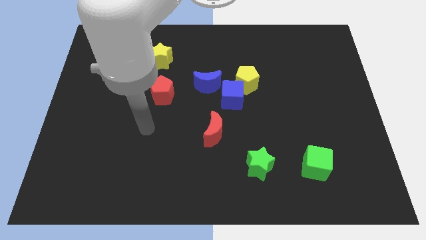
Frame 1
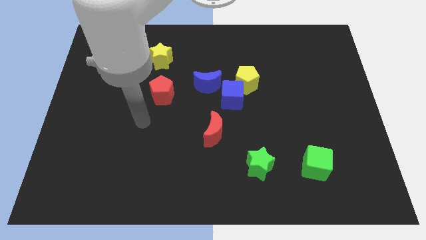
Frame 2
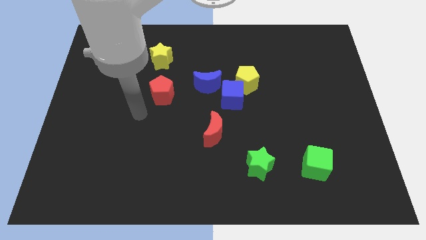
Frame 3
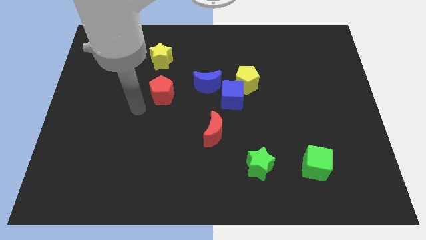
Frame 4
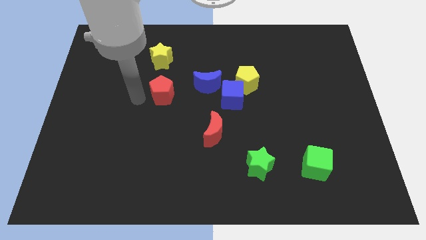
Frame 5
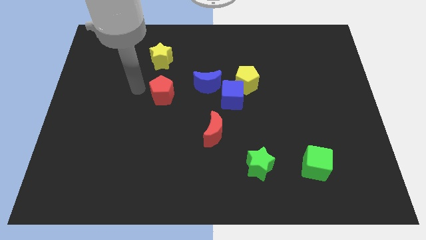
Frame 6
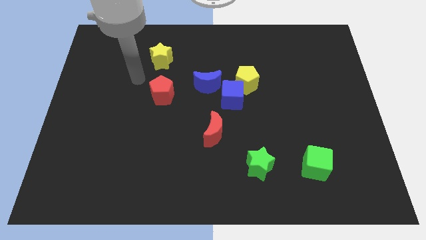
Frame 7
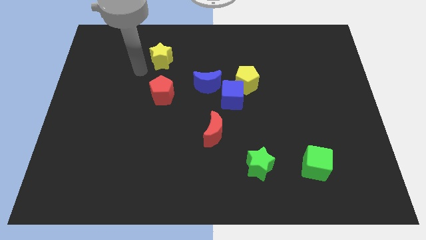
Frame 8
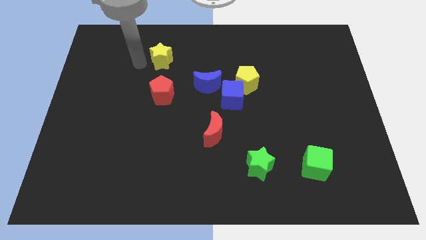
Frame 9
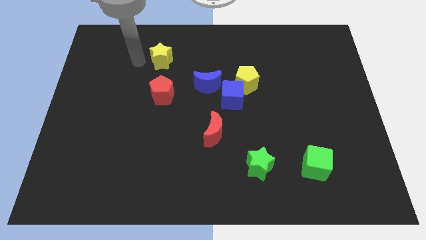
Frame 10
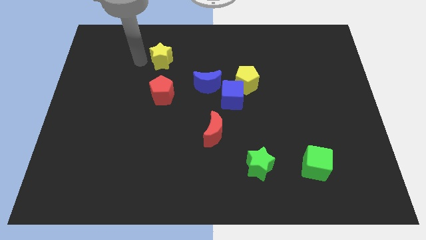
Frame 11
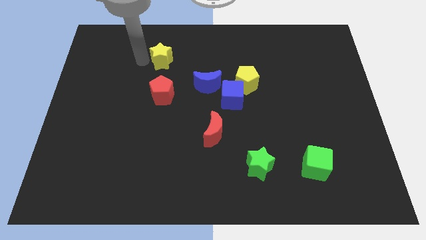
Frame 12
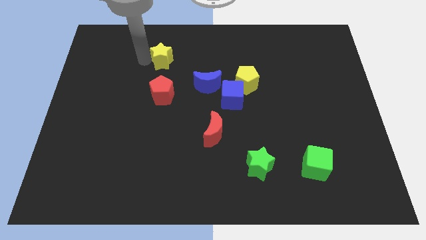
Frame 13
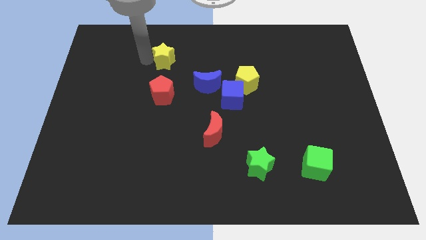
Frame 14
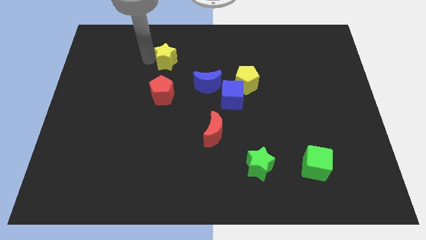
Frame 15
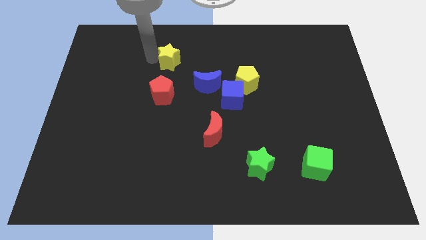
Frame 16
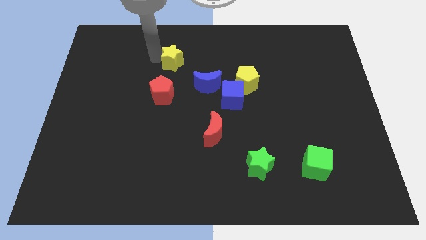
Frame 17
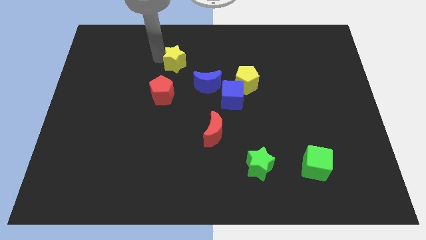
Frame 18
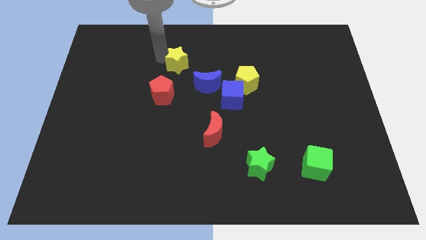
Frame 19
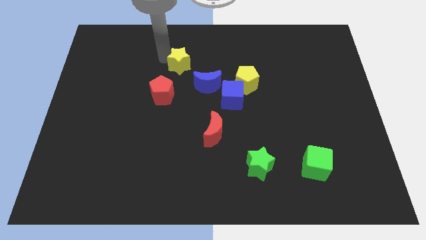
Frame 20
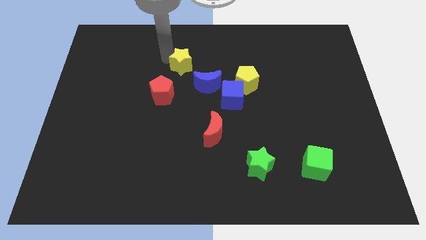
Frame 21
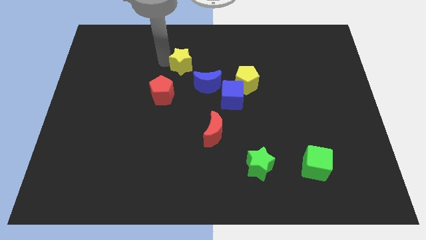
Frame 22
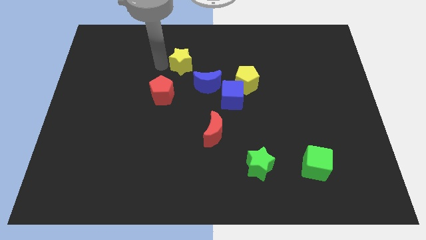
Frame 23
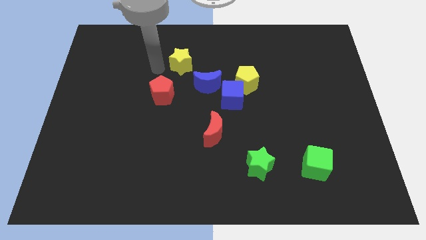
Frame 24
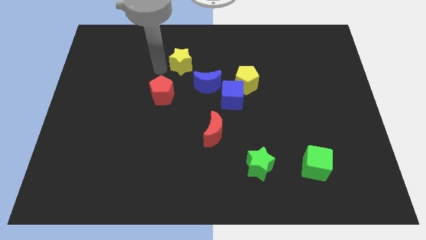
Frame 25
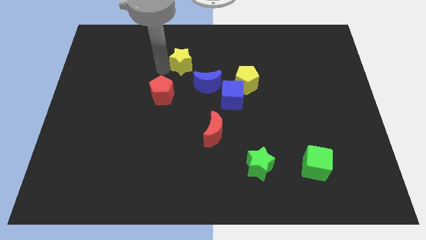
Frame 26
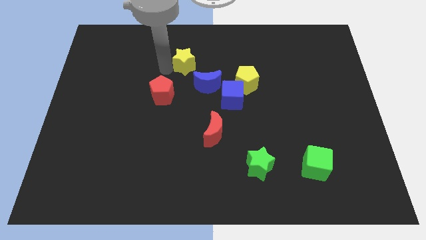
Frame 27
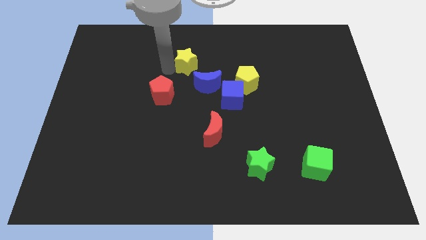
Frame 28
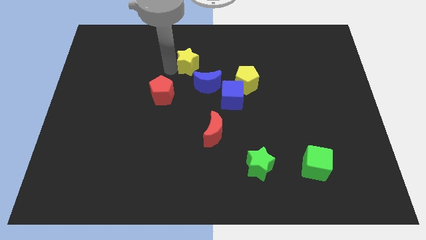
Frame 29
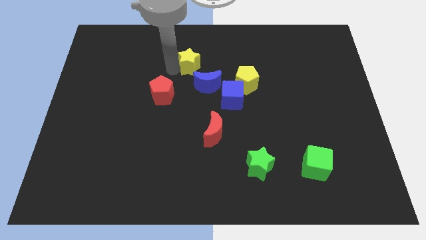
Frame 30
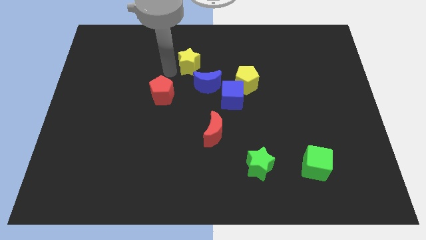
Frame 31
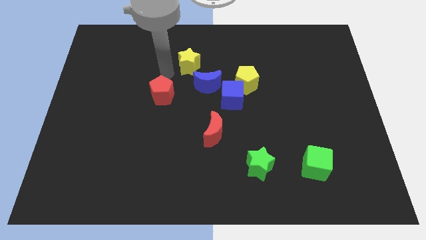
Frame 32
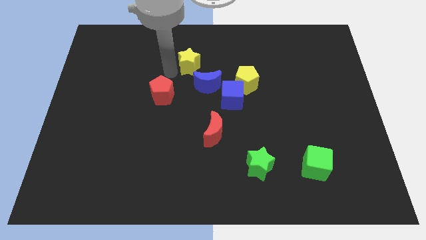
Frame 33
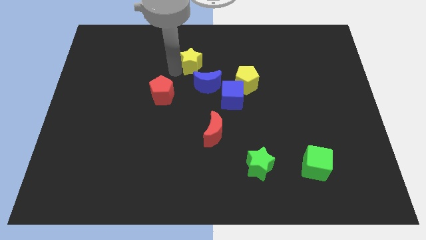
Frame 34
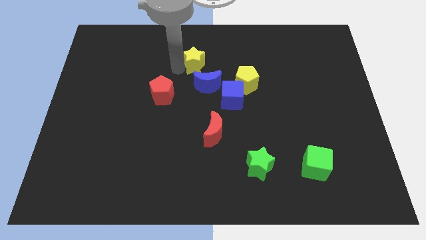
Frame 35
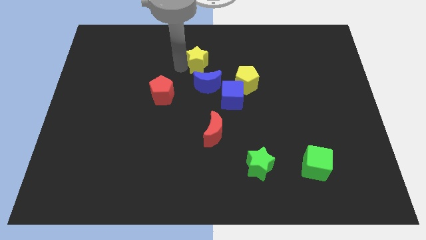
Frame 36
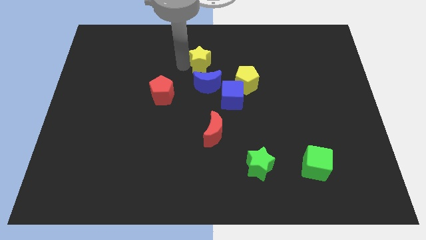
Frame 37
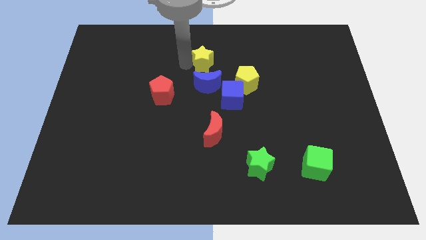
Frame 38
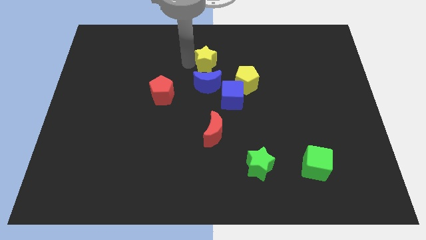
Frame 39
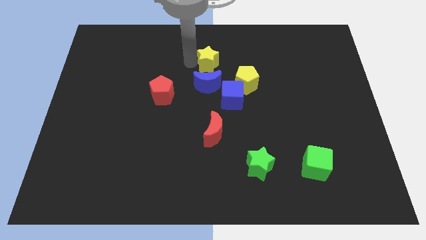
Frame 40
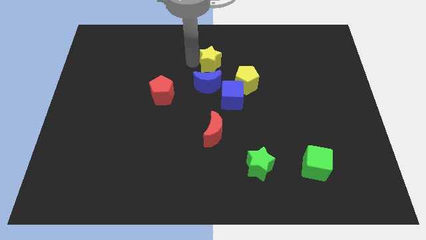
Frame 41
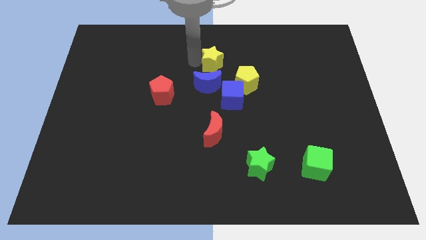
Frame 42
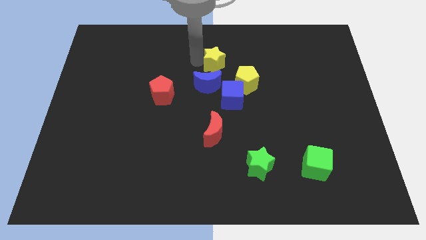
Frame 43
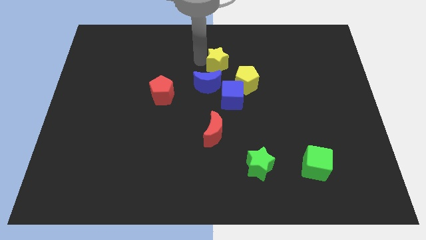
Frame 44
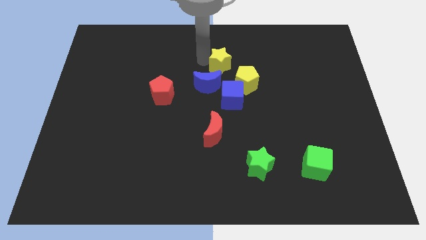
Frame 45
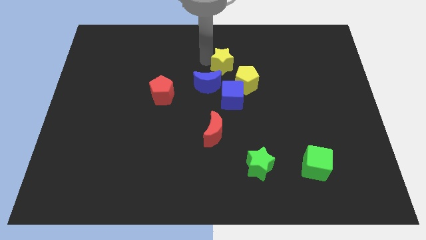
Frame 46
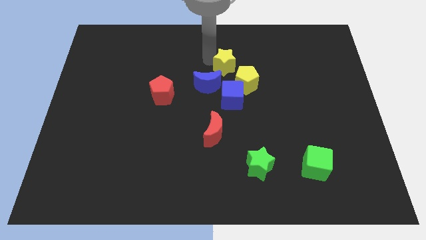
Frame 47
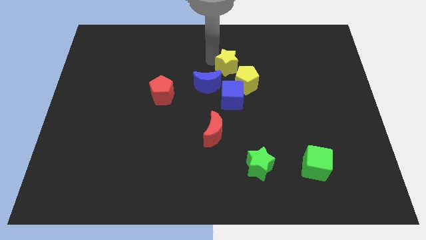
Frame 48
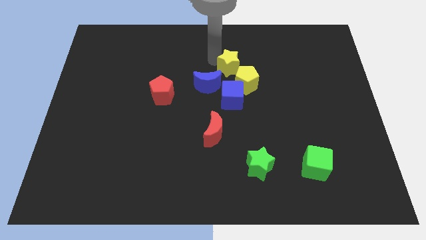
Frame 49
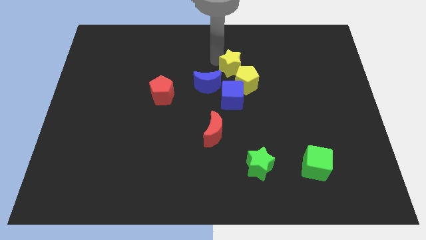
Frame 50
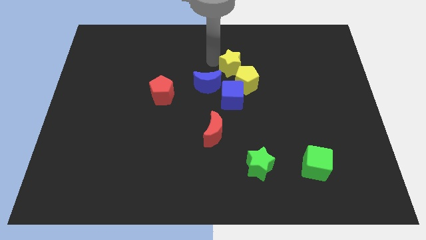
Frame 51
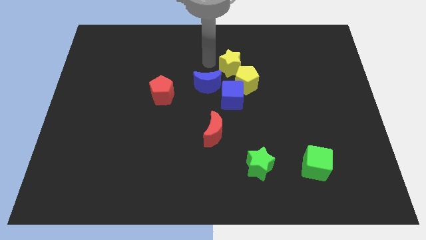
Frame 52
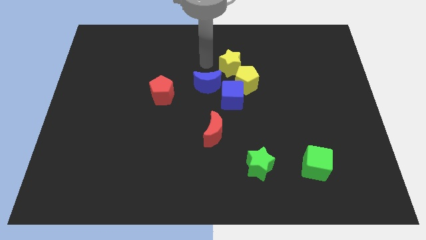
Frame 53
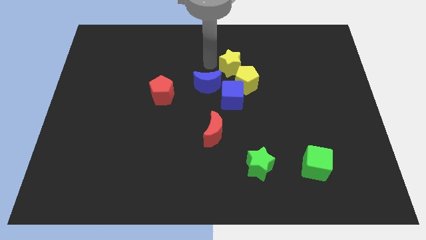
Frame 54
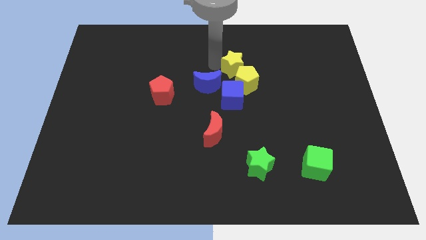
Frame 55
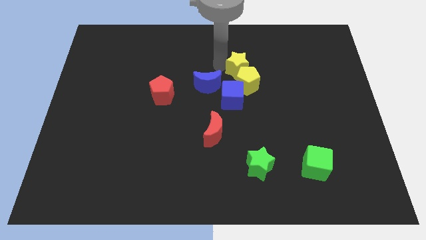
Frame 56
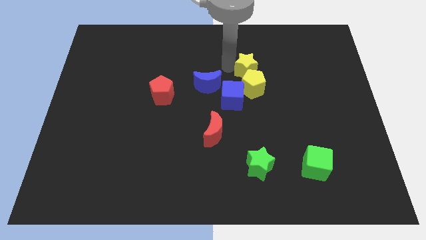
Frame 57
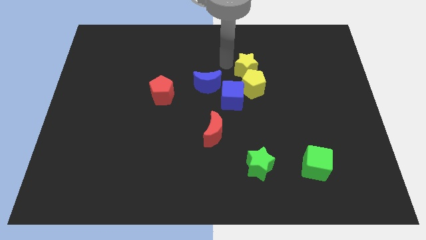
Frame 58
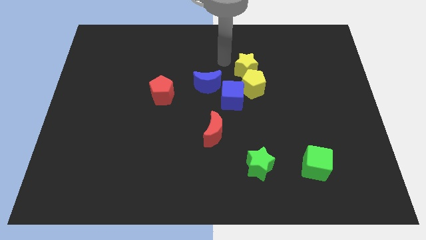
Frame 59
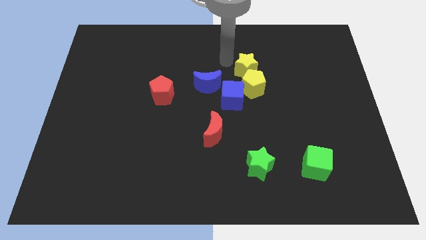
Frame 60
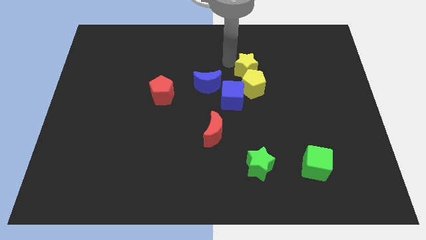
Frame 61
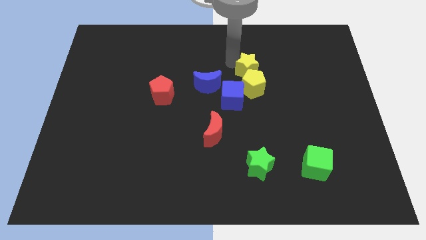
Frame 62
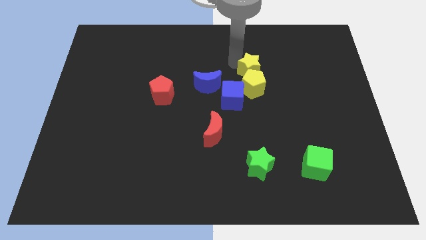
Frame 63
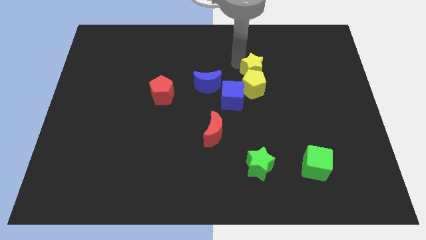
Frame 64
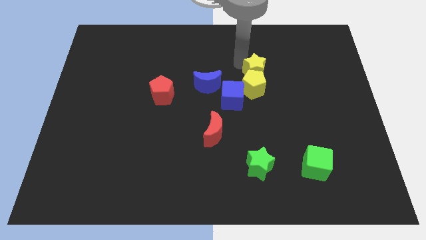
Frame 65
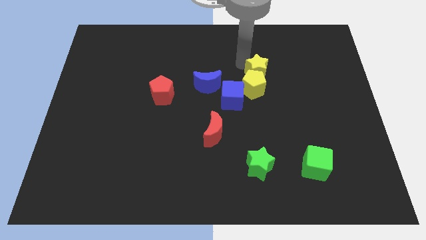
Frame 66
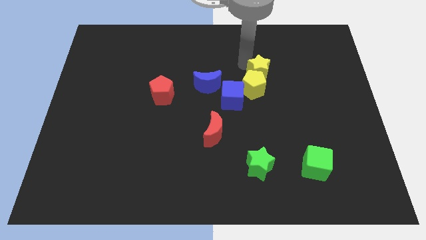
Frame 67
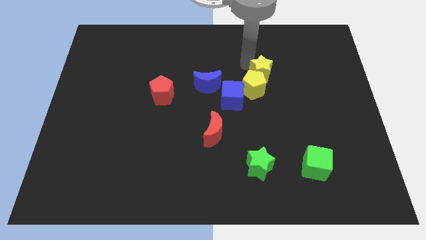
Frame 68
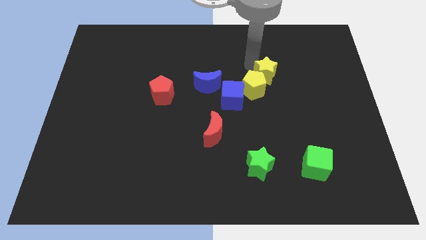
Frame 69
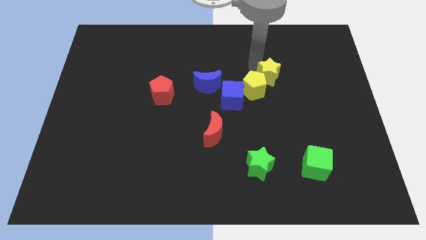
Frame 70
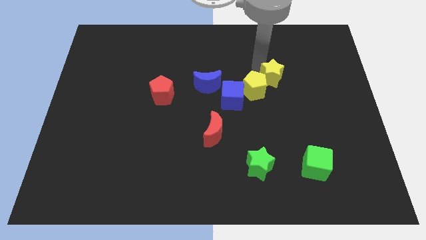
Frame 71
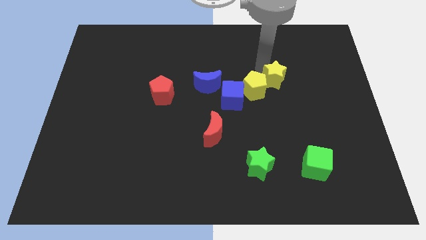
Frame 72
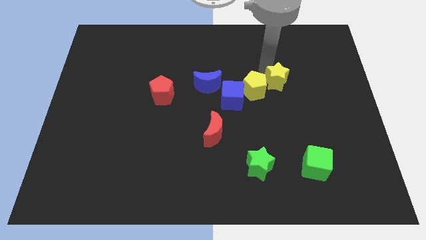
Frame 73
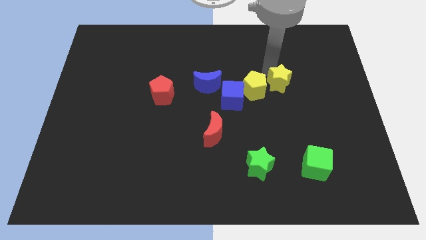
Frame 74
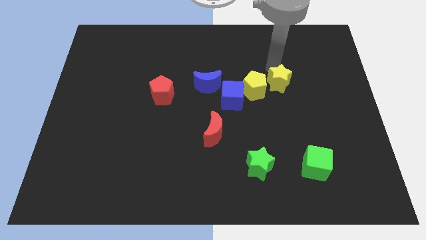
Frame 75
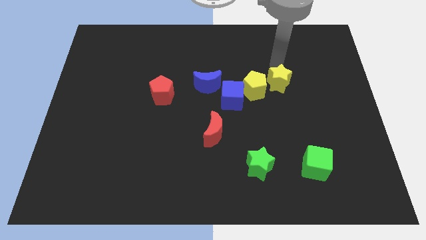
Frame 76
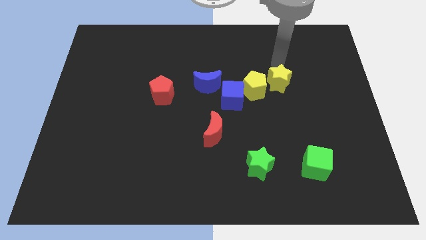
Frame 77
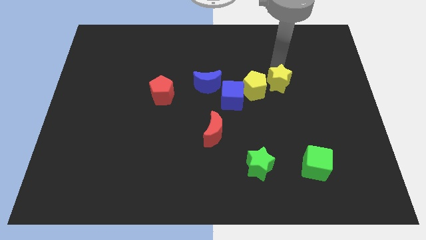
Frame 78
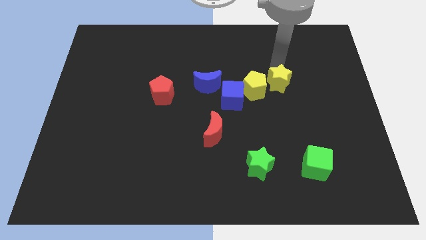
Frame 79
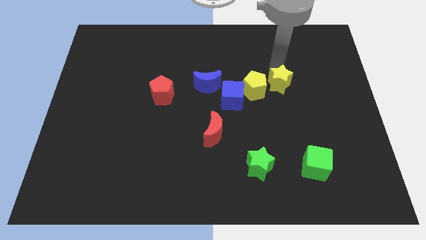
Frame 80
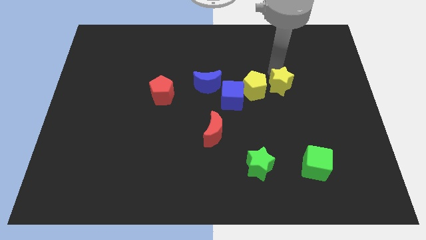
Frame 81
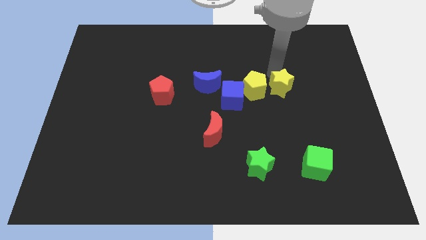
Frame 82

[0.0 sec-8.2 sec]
move the yellow star to the bottom right of the yellow pentagon
